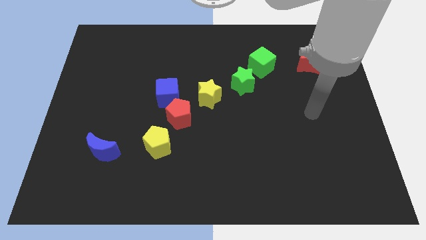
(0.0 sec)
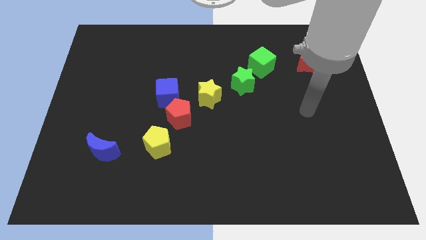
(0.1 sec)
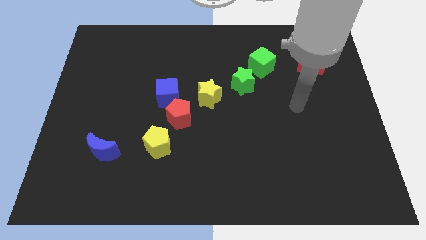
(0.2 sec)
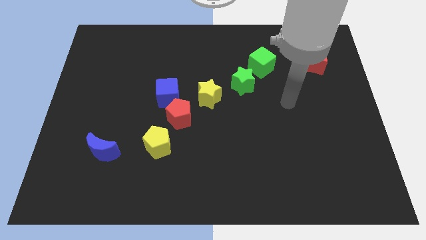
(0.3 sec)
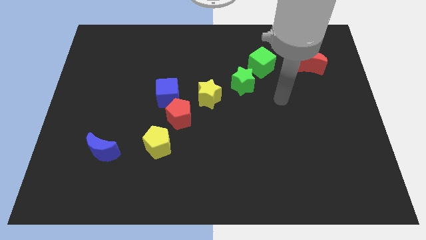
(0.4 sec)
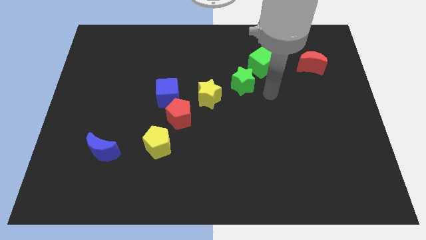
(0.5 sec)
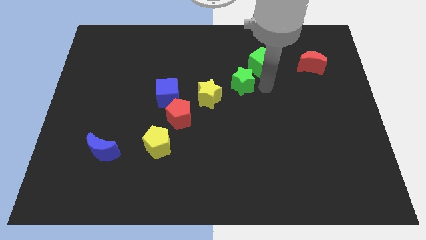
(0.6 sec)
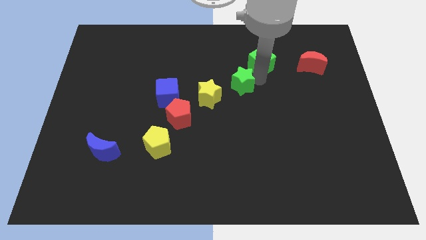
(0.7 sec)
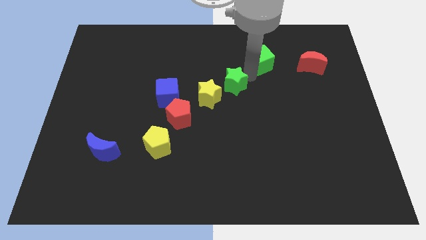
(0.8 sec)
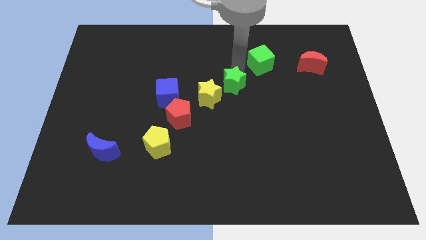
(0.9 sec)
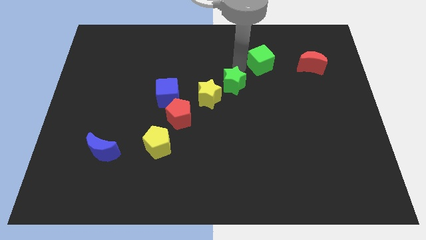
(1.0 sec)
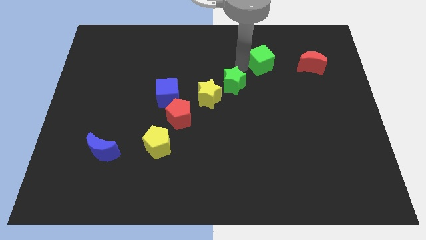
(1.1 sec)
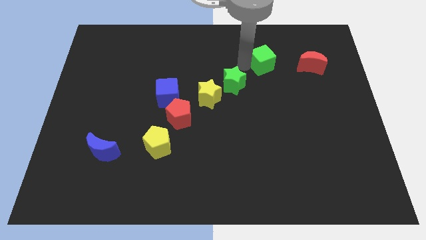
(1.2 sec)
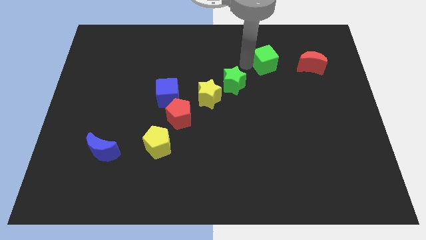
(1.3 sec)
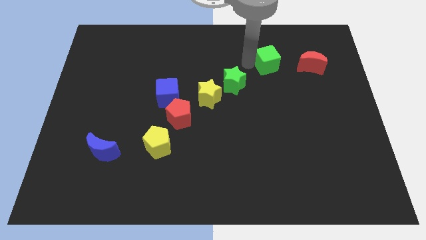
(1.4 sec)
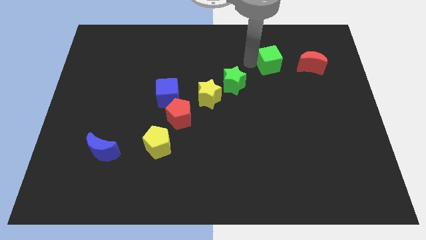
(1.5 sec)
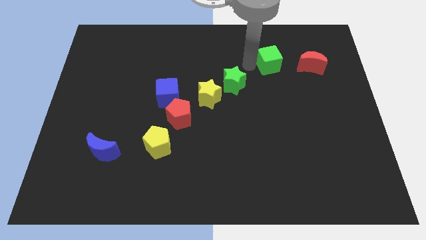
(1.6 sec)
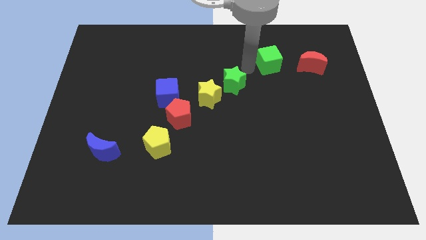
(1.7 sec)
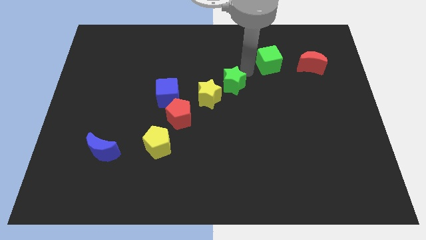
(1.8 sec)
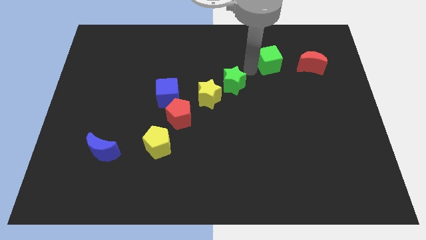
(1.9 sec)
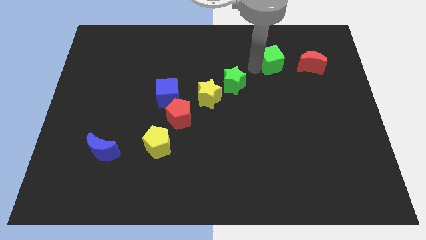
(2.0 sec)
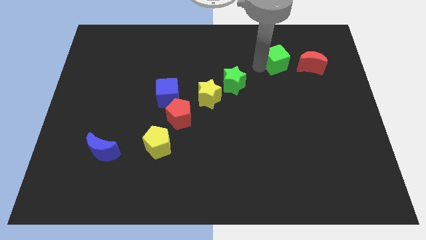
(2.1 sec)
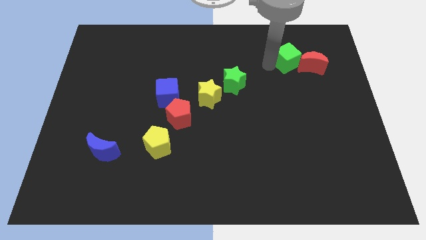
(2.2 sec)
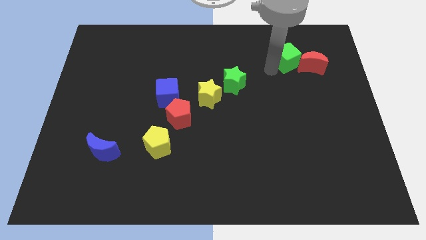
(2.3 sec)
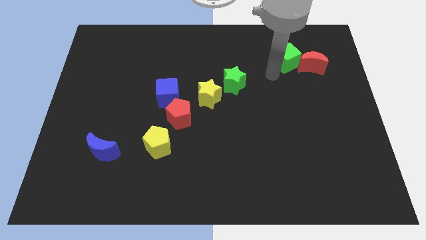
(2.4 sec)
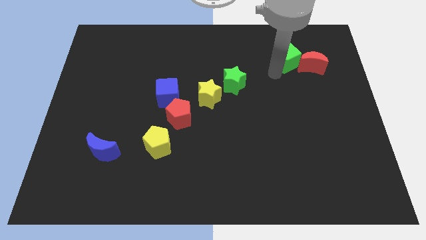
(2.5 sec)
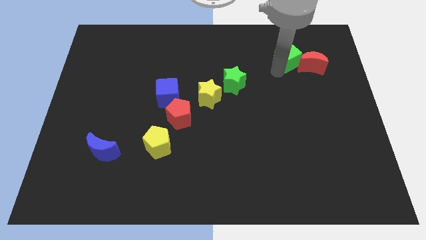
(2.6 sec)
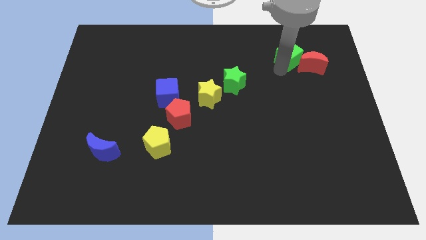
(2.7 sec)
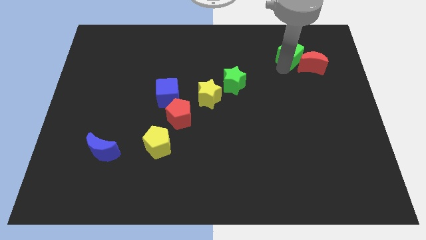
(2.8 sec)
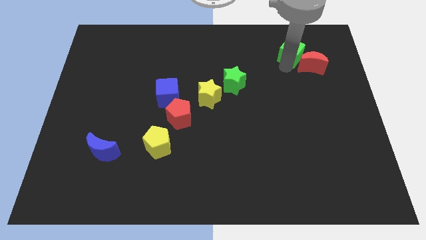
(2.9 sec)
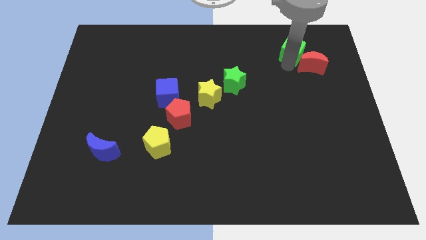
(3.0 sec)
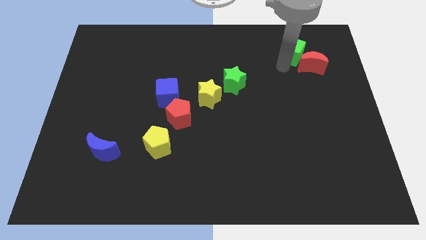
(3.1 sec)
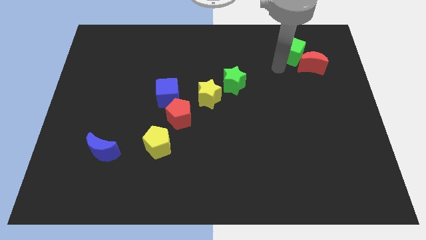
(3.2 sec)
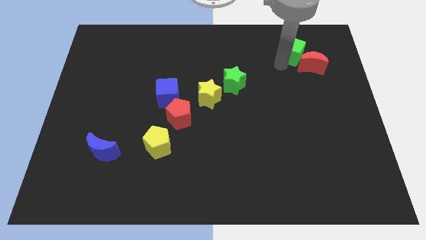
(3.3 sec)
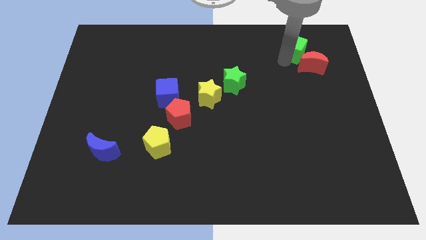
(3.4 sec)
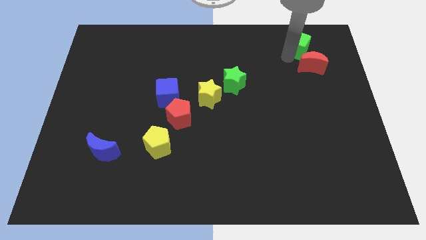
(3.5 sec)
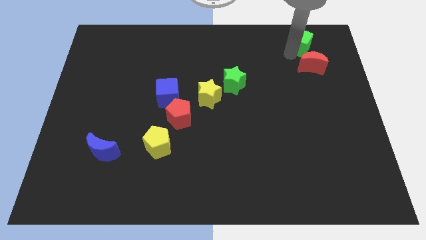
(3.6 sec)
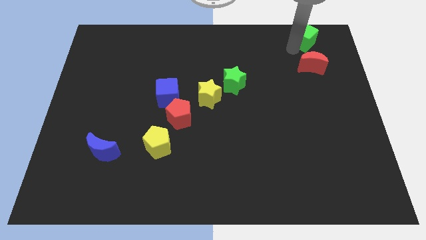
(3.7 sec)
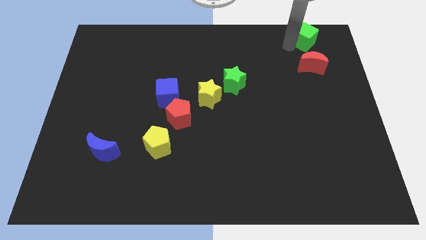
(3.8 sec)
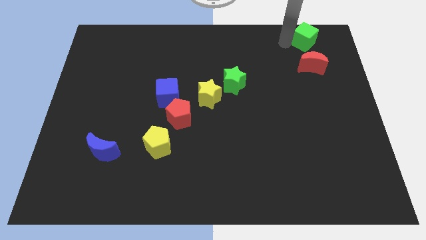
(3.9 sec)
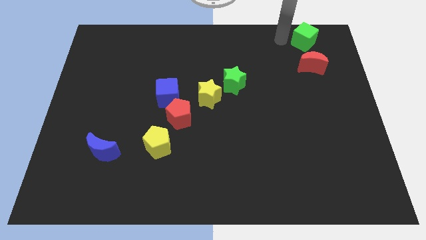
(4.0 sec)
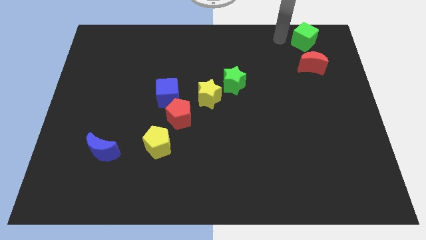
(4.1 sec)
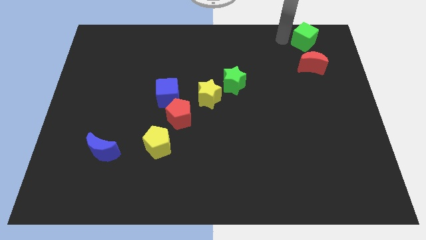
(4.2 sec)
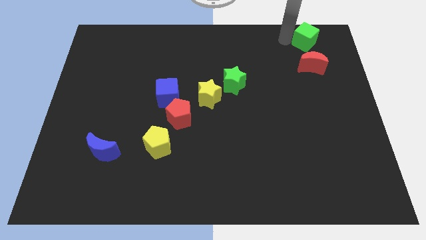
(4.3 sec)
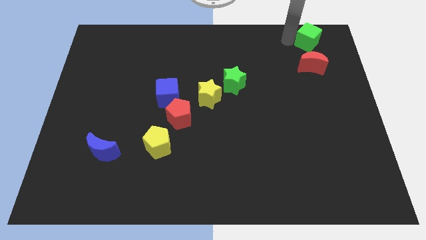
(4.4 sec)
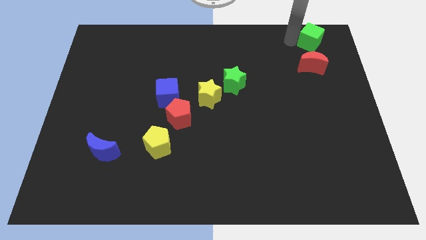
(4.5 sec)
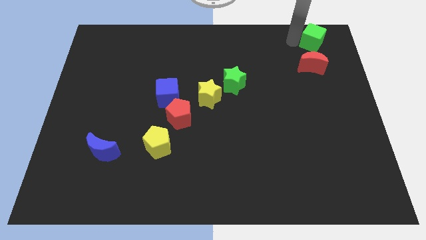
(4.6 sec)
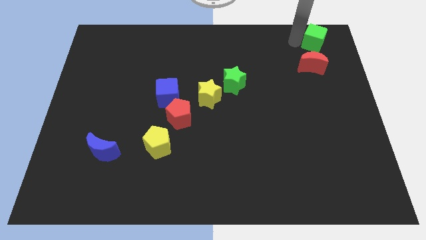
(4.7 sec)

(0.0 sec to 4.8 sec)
slide the green cube to the upper right corner

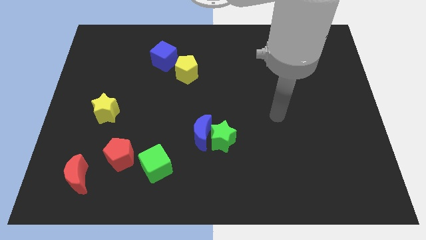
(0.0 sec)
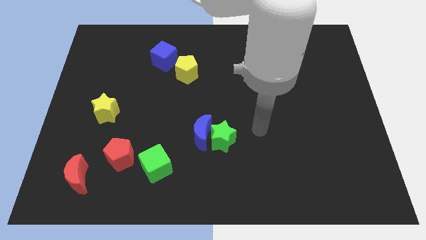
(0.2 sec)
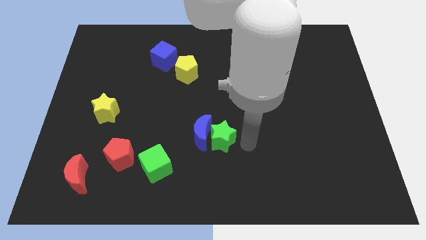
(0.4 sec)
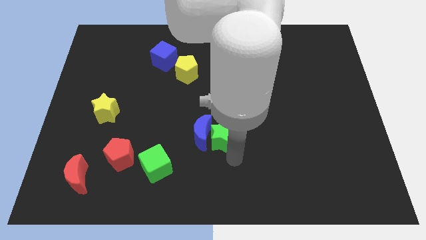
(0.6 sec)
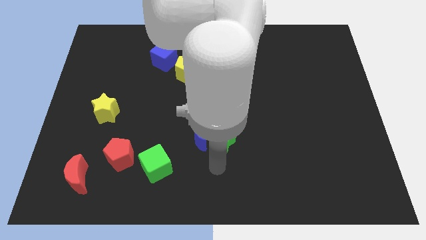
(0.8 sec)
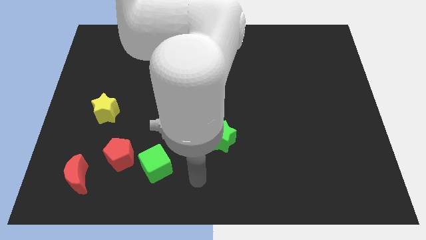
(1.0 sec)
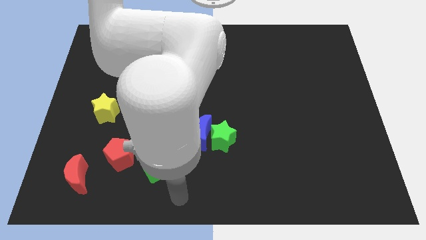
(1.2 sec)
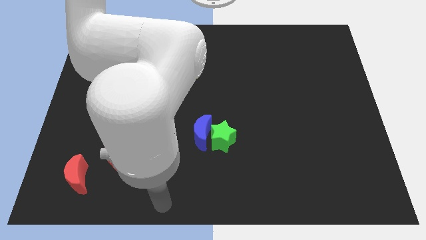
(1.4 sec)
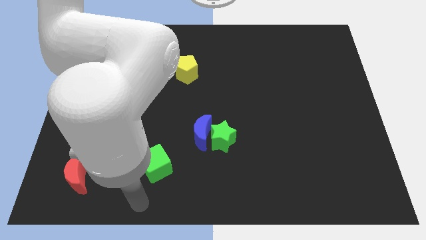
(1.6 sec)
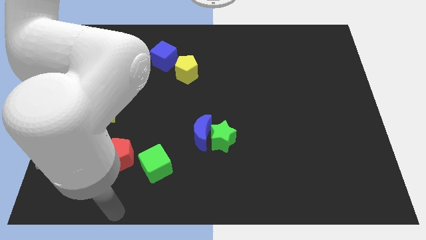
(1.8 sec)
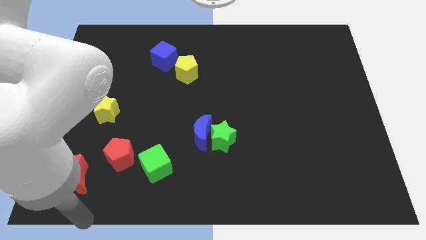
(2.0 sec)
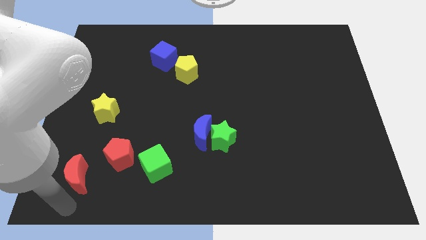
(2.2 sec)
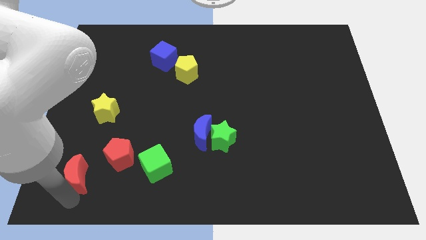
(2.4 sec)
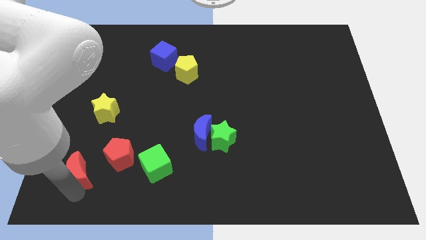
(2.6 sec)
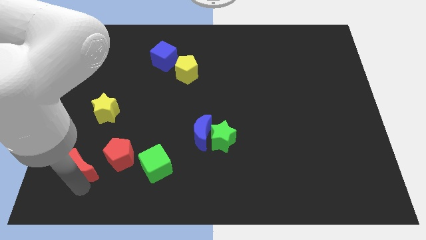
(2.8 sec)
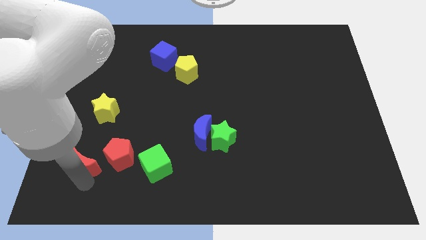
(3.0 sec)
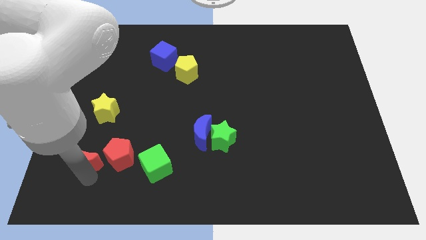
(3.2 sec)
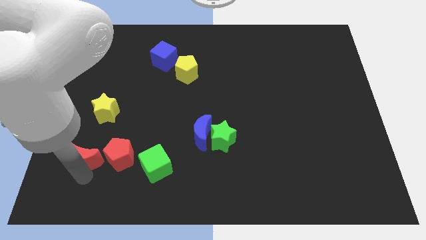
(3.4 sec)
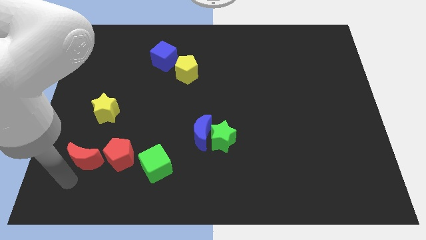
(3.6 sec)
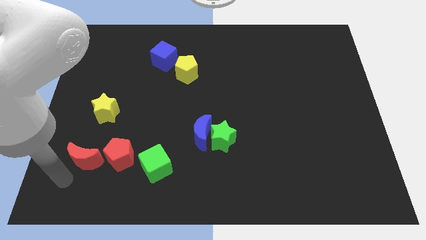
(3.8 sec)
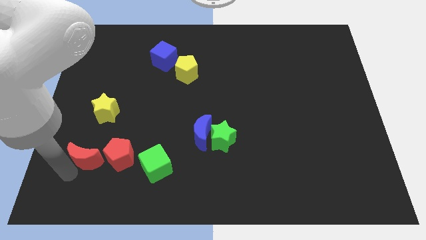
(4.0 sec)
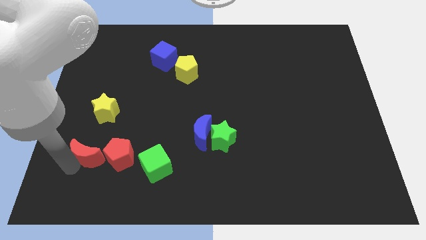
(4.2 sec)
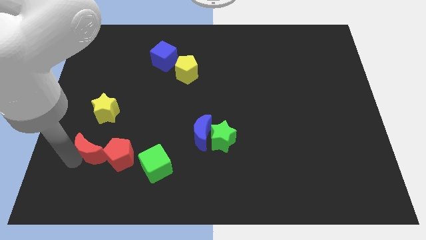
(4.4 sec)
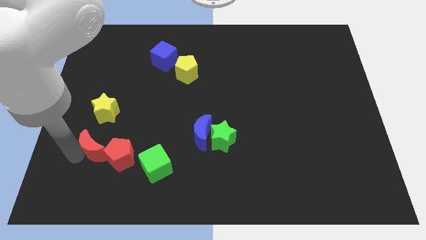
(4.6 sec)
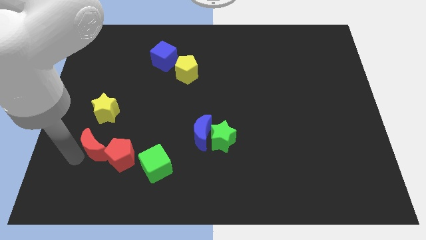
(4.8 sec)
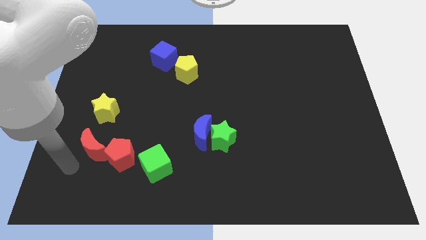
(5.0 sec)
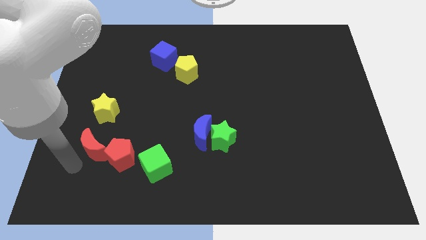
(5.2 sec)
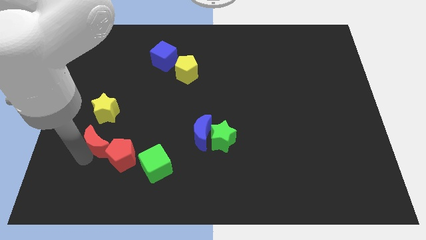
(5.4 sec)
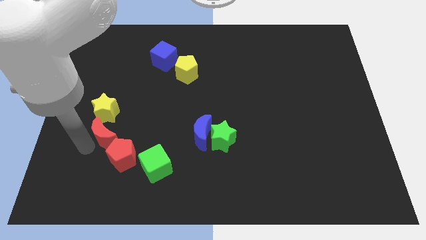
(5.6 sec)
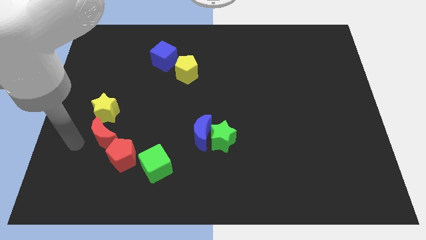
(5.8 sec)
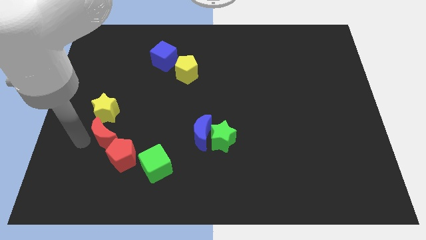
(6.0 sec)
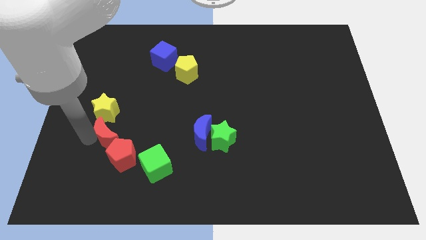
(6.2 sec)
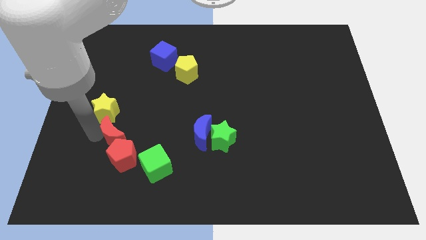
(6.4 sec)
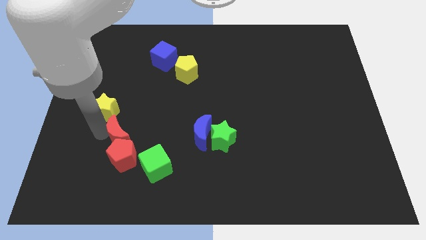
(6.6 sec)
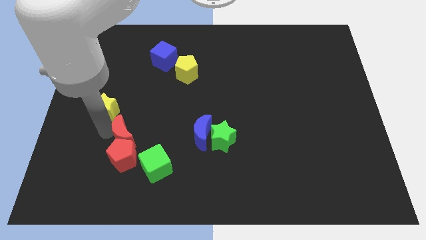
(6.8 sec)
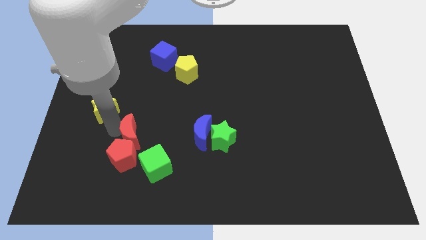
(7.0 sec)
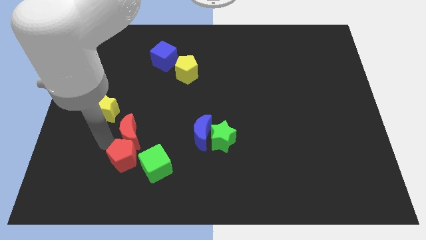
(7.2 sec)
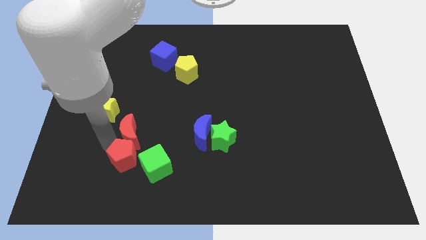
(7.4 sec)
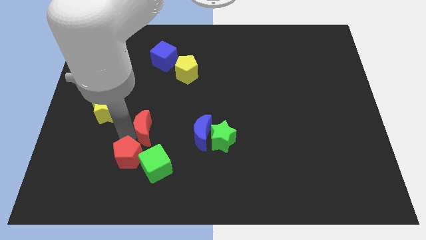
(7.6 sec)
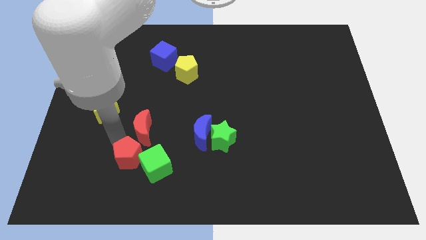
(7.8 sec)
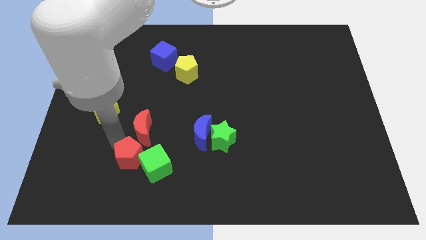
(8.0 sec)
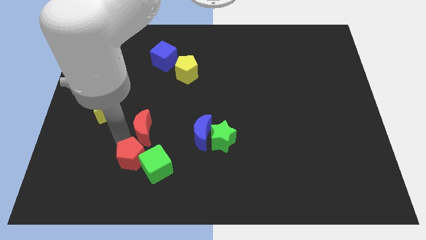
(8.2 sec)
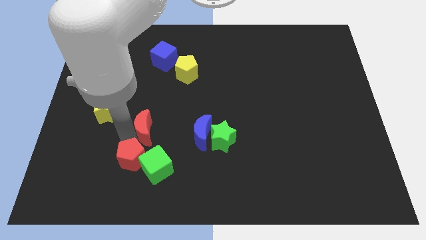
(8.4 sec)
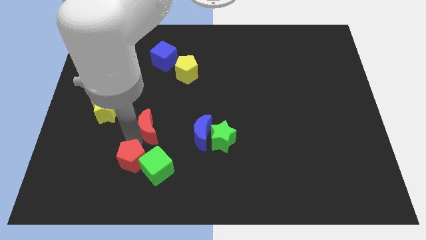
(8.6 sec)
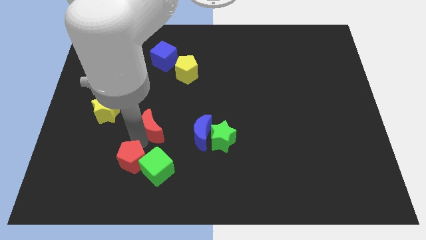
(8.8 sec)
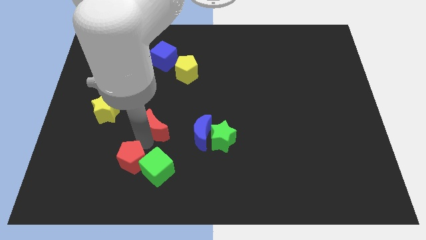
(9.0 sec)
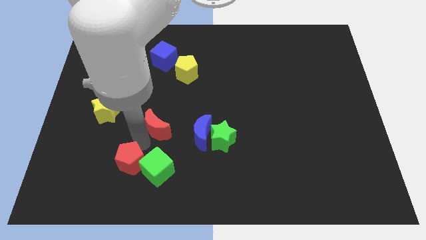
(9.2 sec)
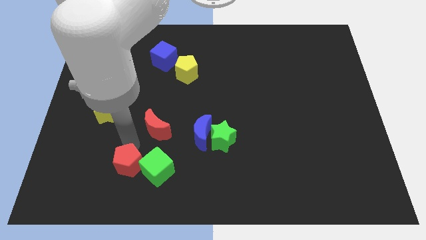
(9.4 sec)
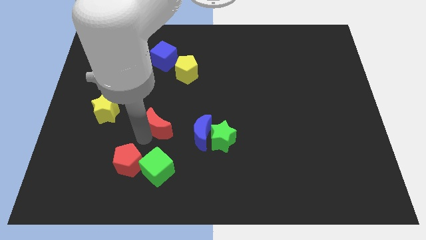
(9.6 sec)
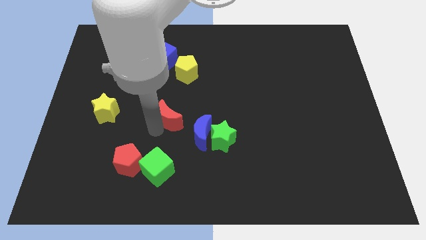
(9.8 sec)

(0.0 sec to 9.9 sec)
slide the red moon to the middle
